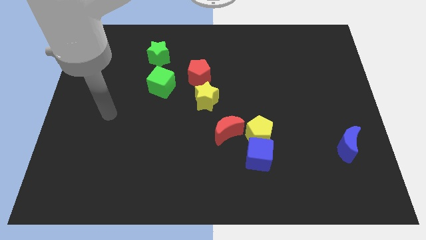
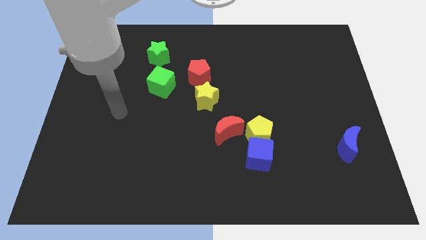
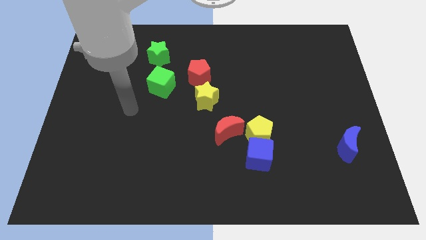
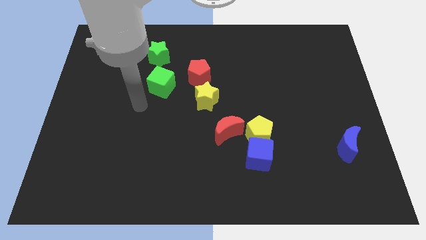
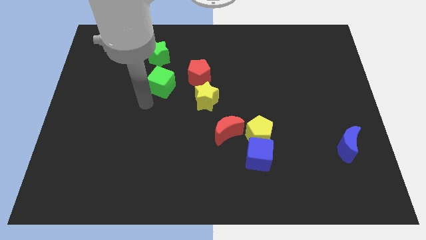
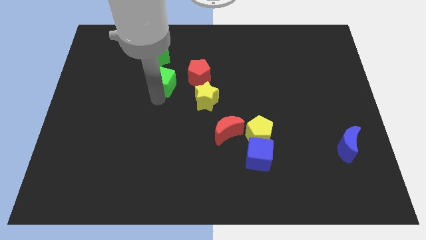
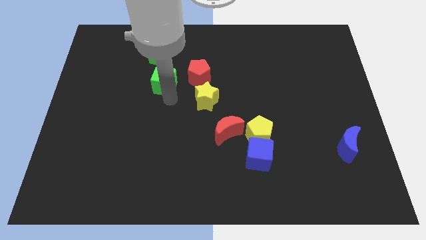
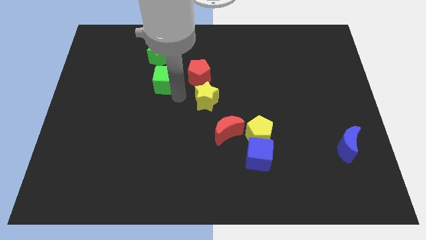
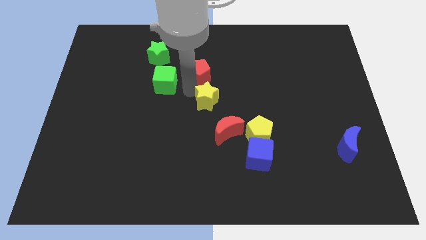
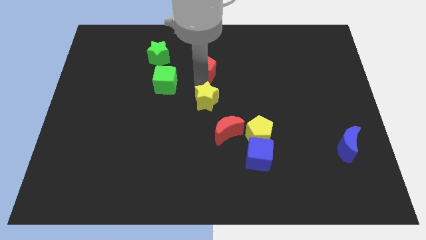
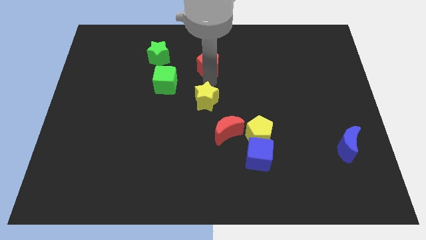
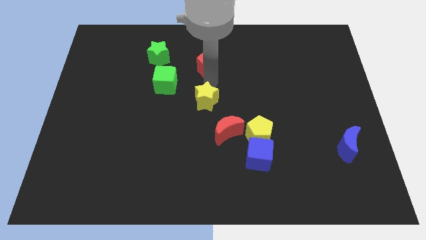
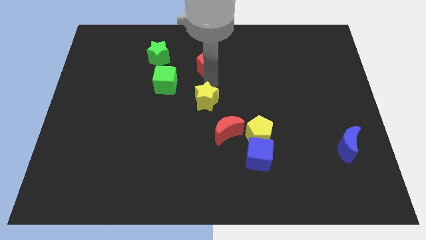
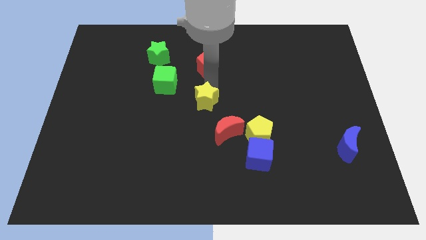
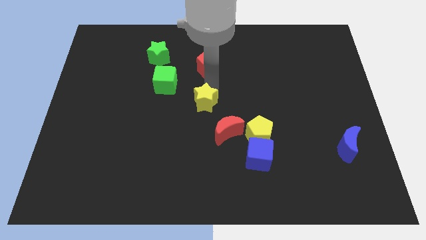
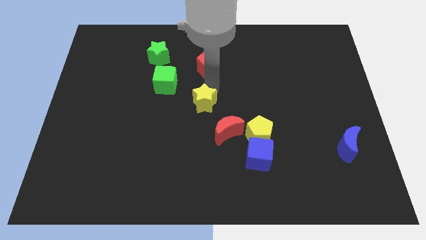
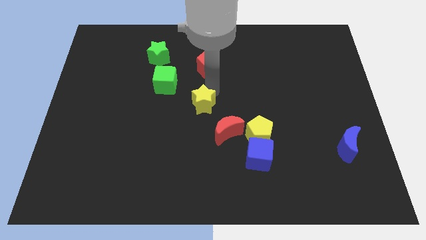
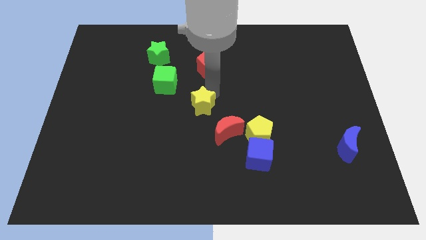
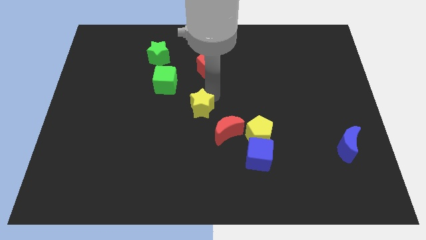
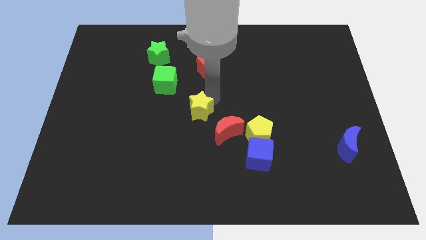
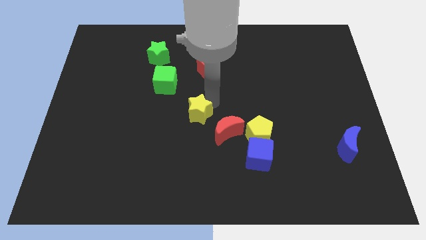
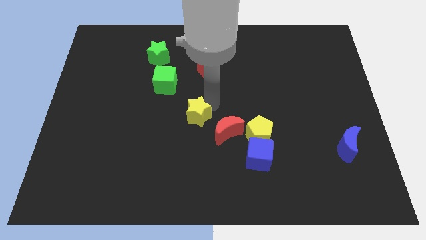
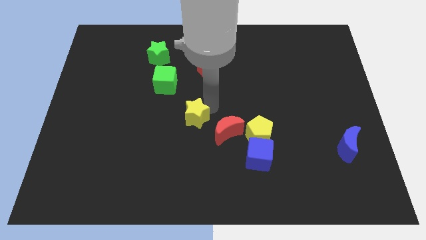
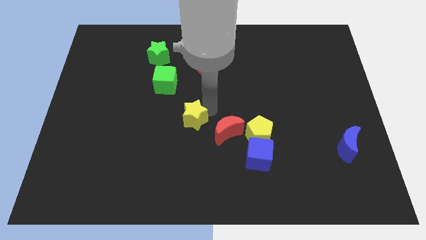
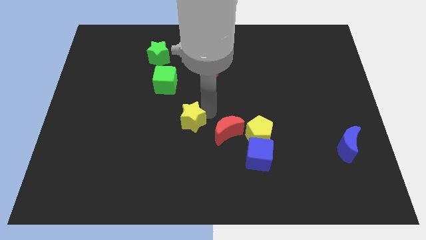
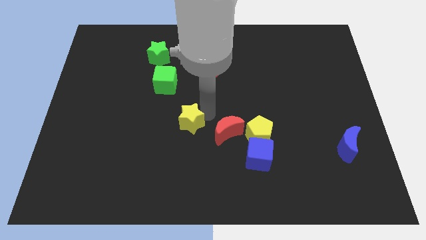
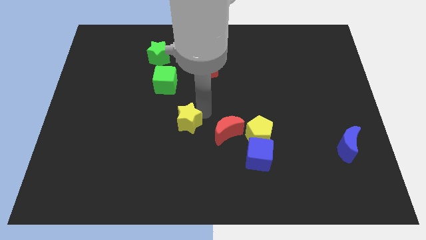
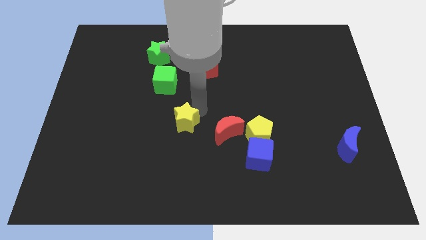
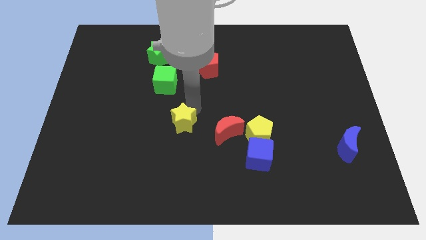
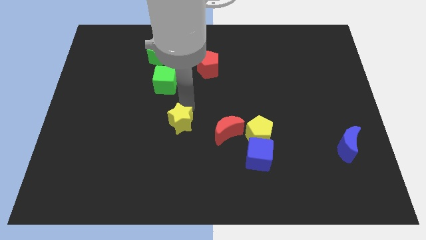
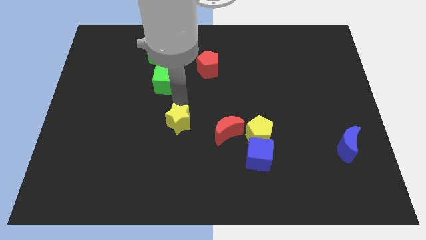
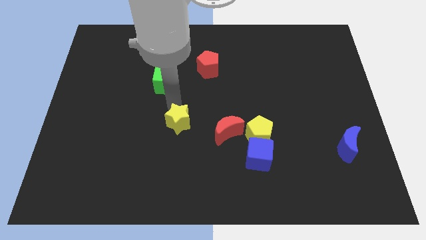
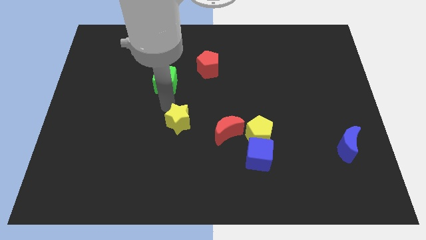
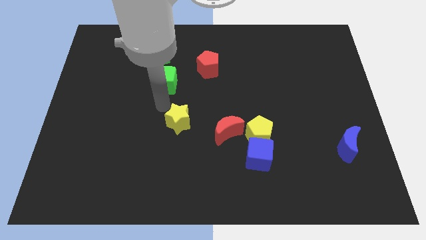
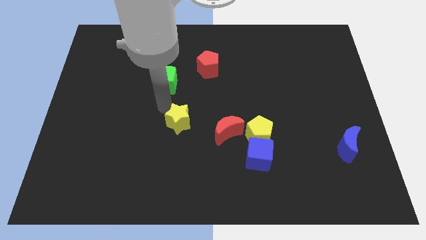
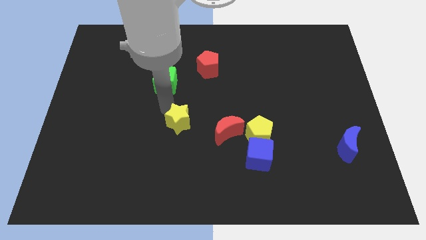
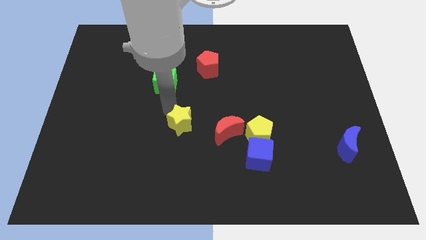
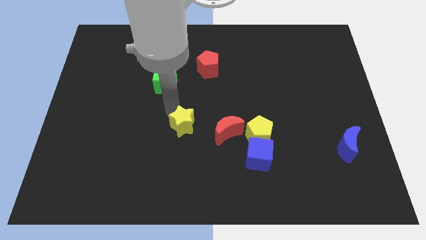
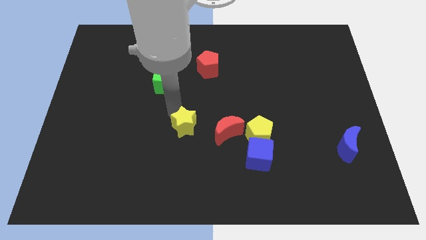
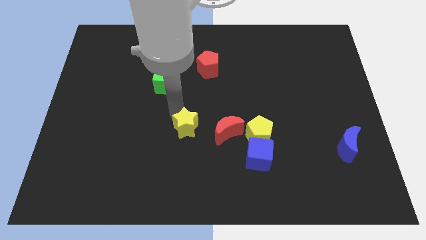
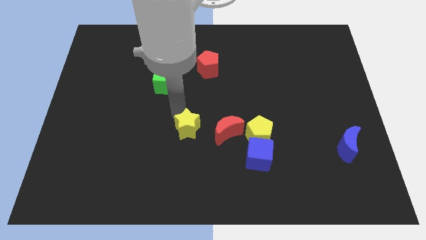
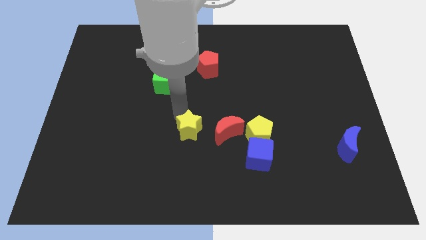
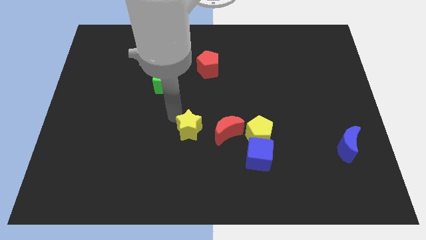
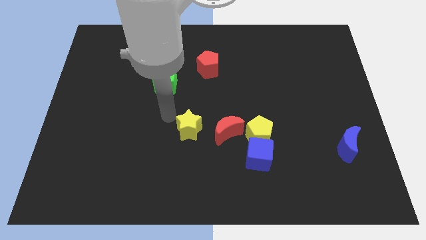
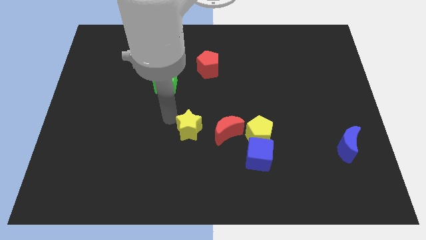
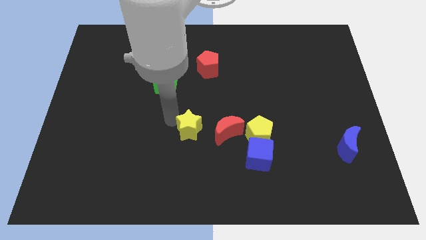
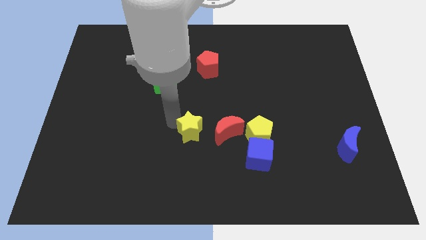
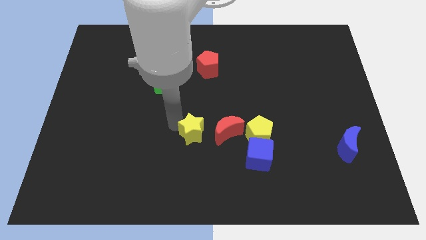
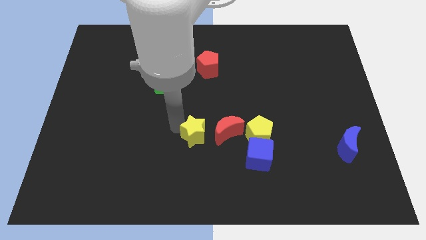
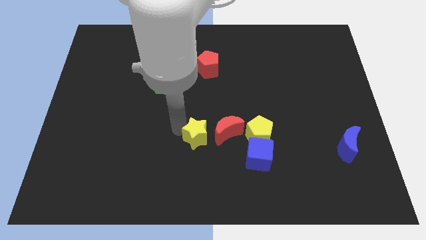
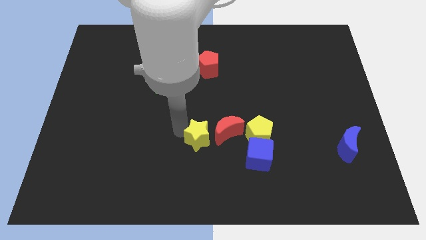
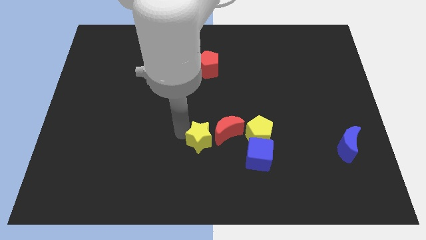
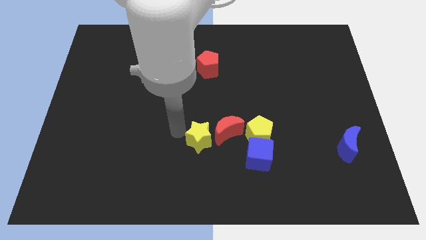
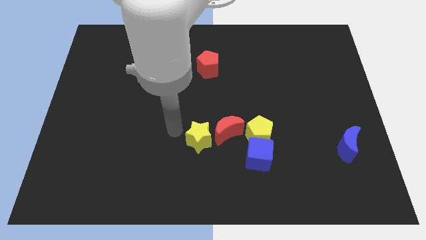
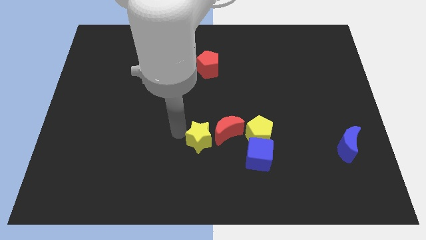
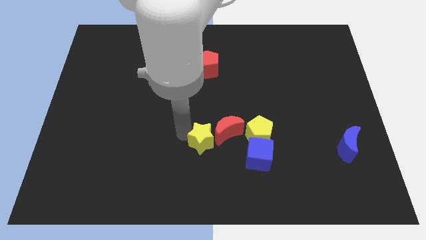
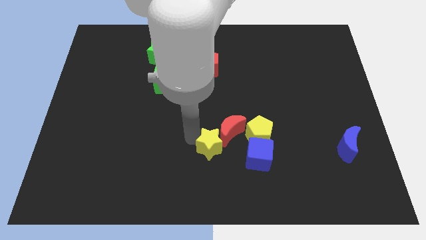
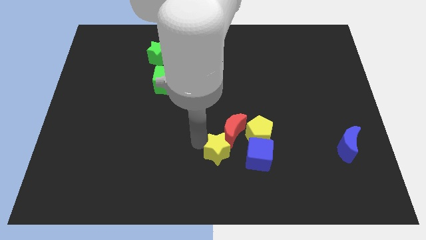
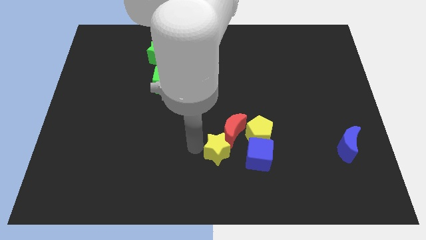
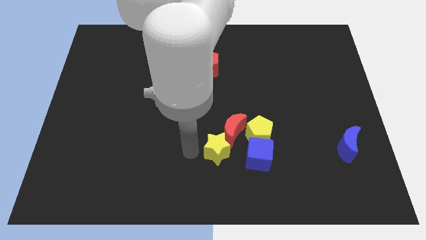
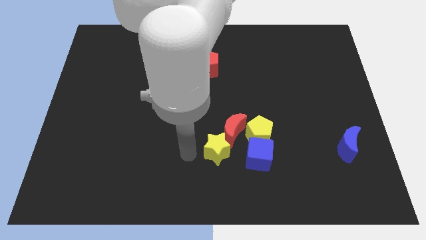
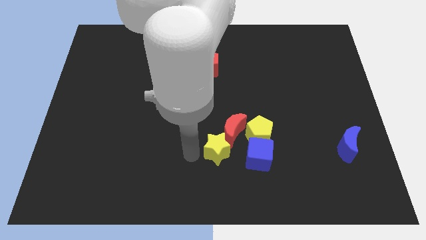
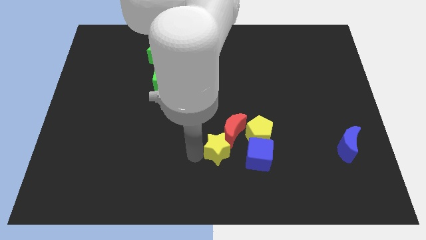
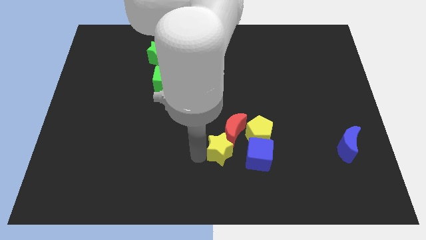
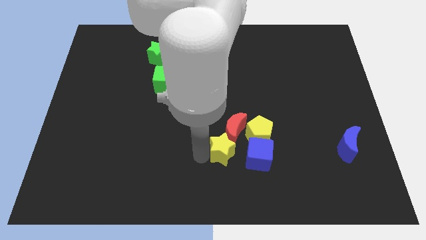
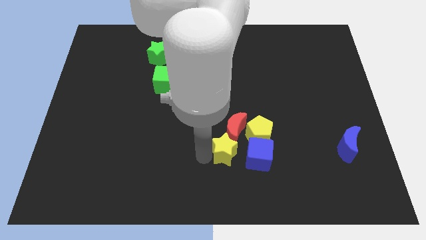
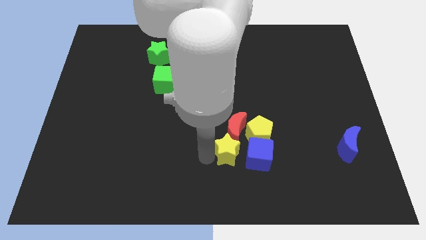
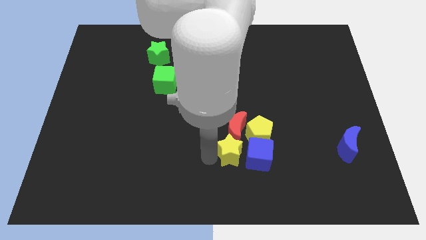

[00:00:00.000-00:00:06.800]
push the yellow star towards the blue cube

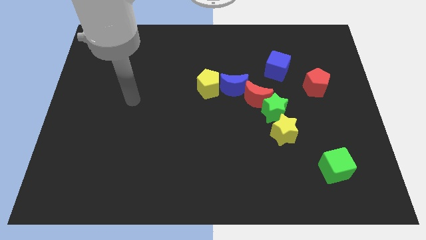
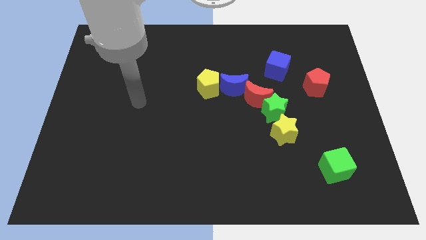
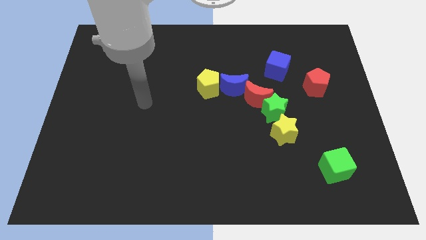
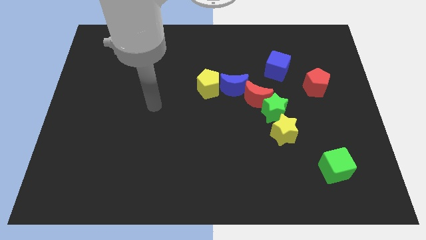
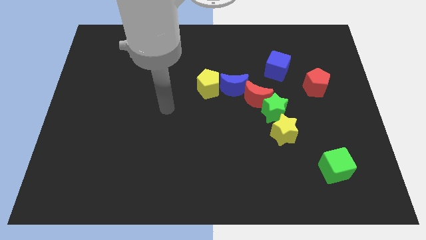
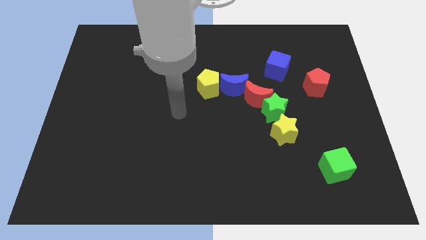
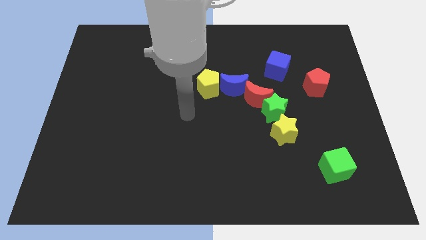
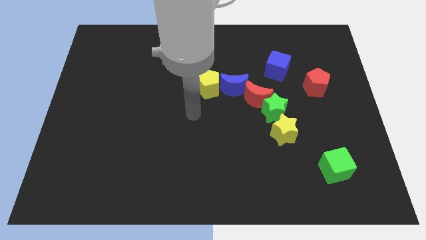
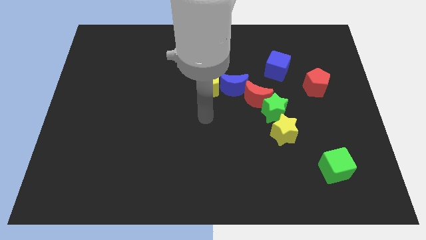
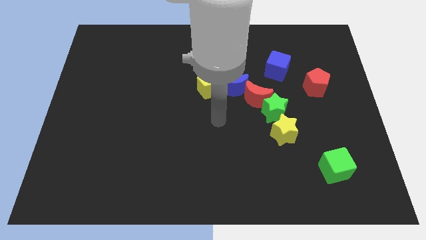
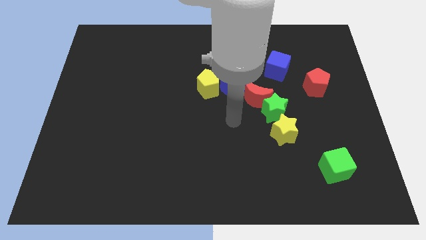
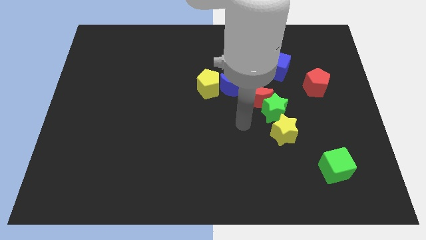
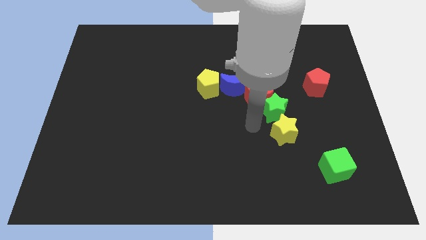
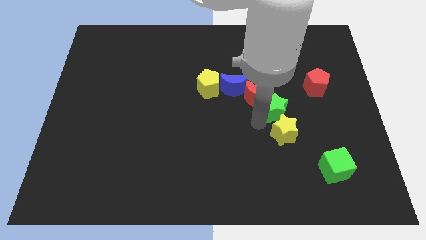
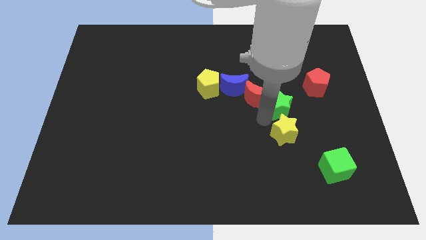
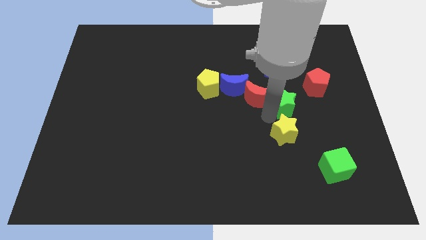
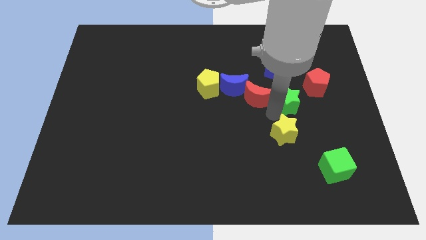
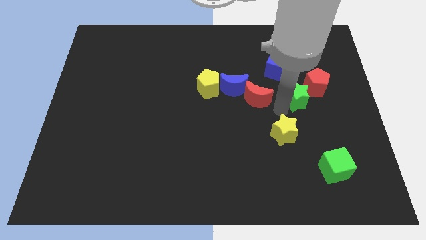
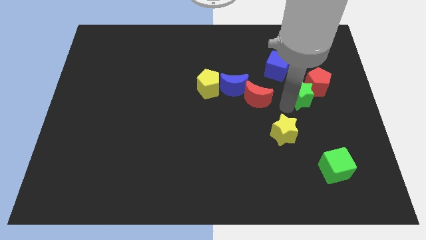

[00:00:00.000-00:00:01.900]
put the green star to the red pentagon
